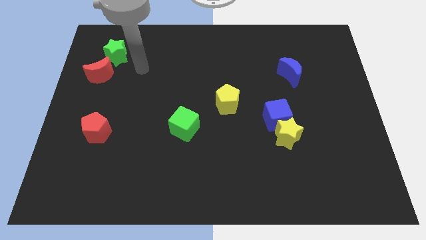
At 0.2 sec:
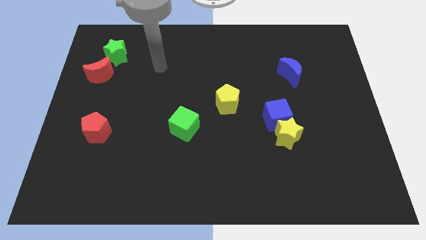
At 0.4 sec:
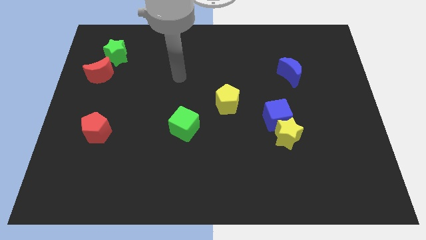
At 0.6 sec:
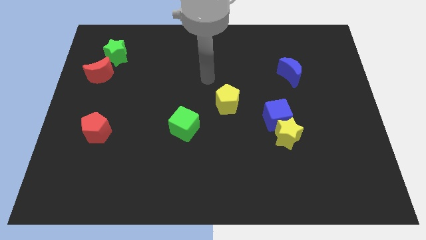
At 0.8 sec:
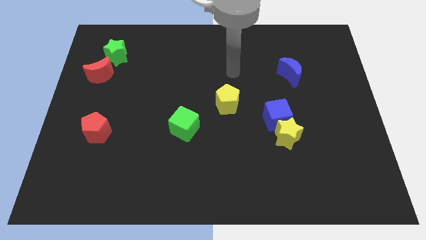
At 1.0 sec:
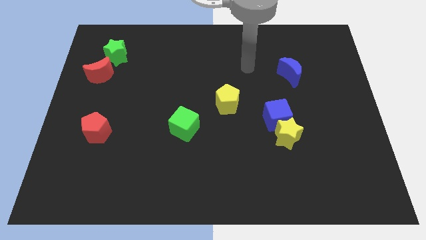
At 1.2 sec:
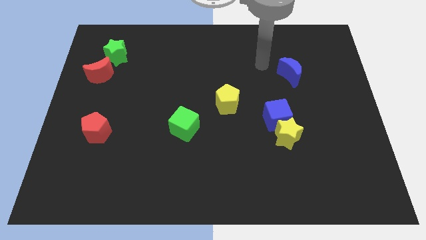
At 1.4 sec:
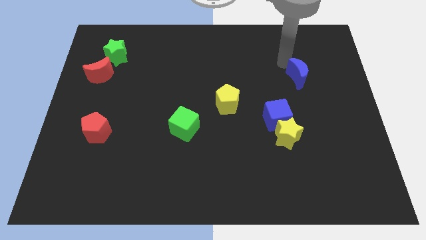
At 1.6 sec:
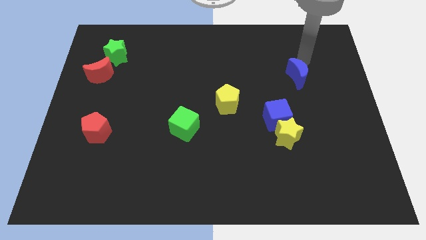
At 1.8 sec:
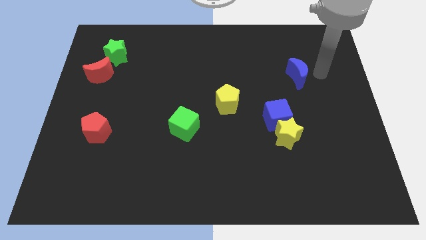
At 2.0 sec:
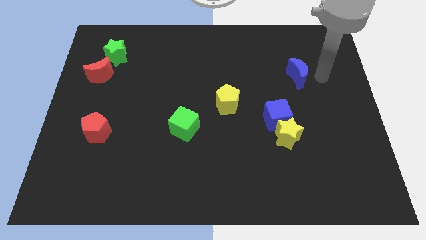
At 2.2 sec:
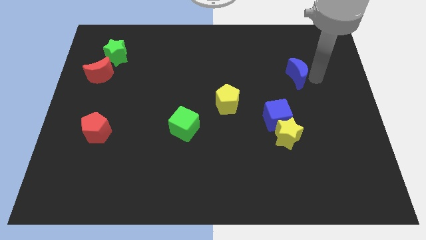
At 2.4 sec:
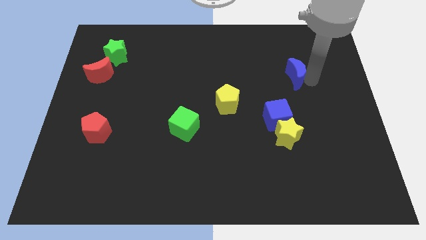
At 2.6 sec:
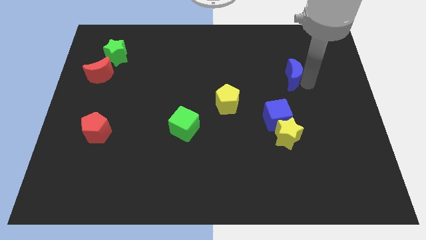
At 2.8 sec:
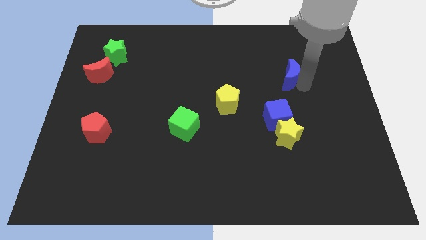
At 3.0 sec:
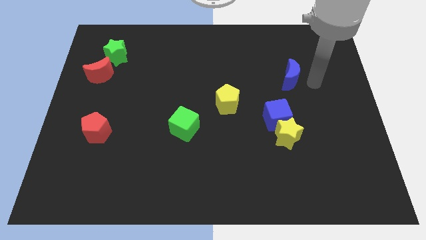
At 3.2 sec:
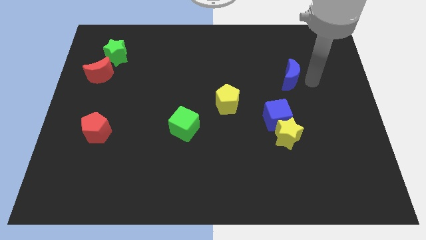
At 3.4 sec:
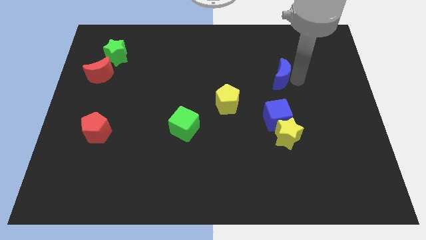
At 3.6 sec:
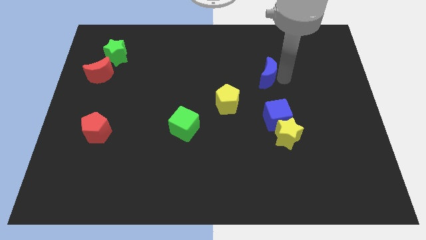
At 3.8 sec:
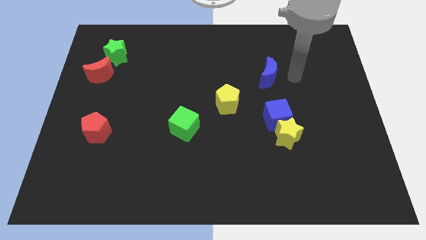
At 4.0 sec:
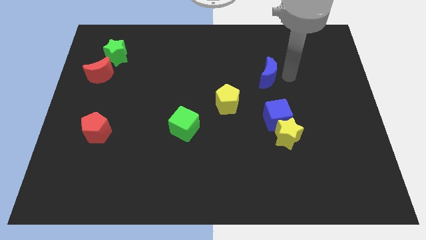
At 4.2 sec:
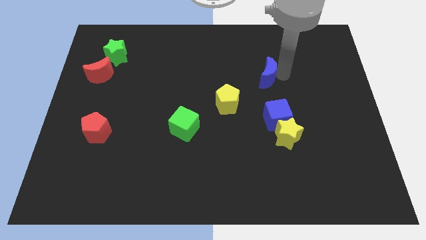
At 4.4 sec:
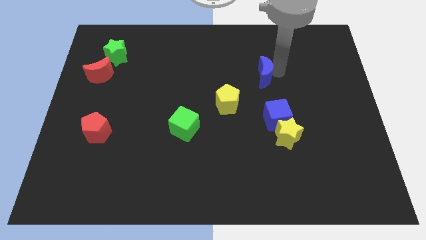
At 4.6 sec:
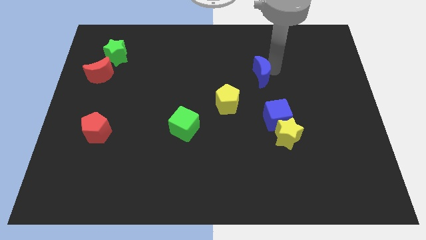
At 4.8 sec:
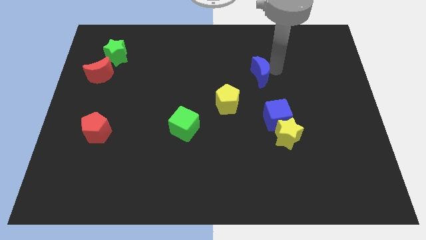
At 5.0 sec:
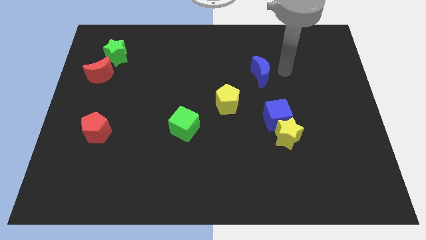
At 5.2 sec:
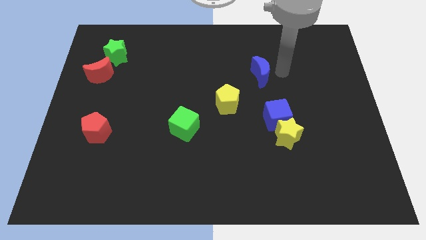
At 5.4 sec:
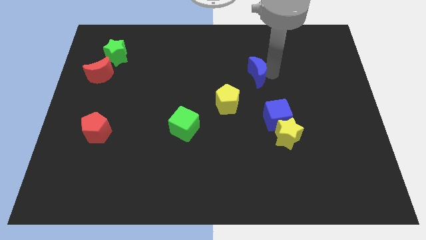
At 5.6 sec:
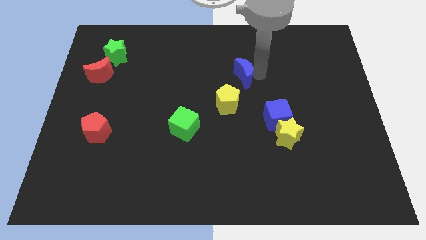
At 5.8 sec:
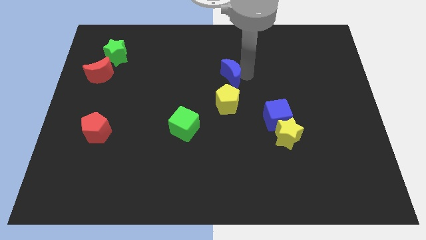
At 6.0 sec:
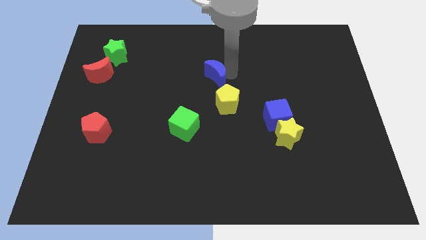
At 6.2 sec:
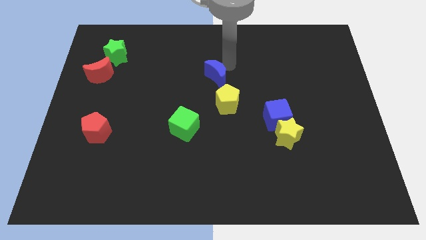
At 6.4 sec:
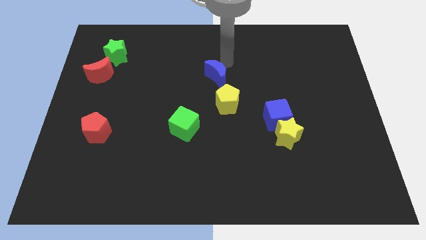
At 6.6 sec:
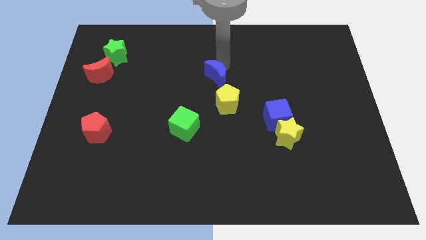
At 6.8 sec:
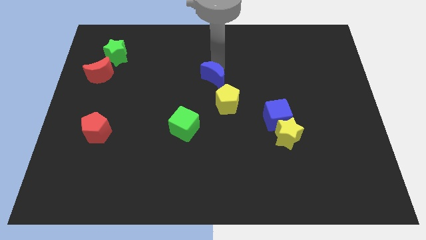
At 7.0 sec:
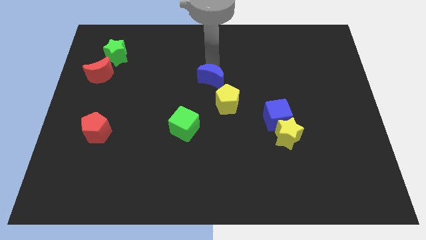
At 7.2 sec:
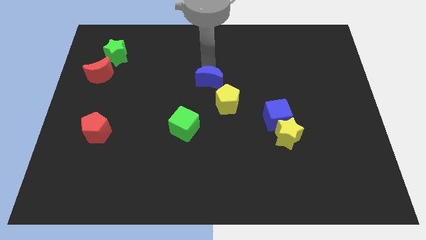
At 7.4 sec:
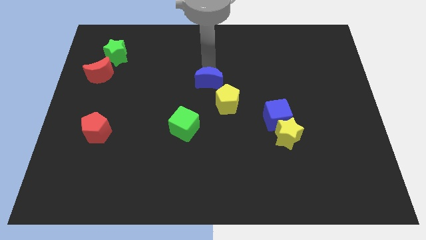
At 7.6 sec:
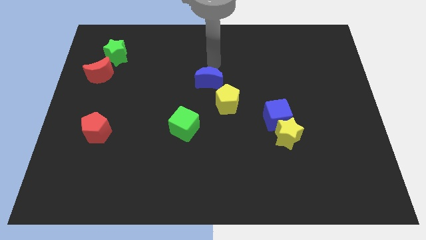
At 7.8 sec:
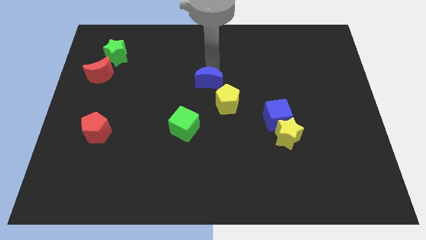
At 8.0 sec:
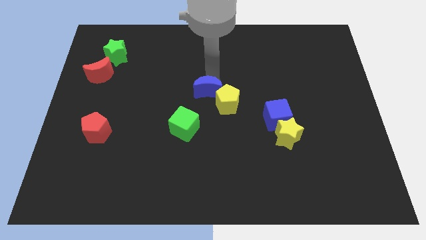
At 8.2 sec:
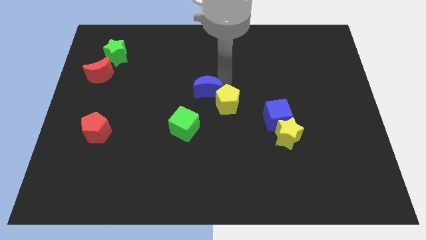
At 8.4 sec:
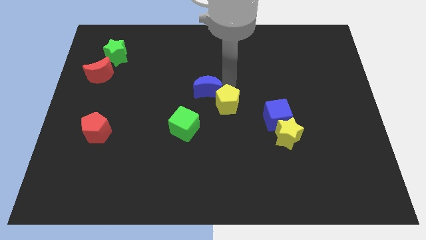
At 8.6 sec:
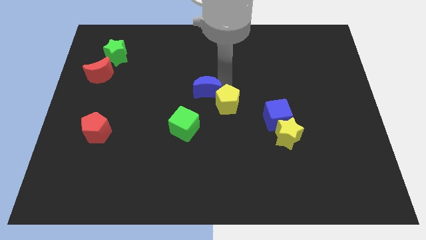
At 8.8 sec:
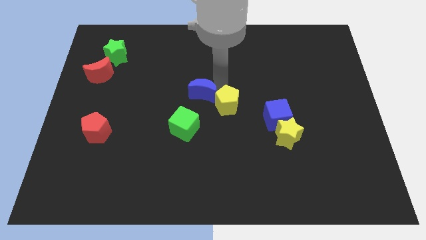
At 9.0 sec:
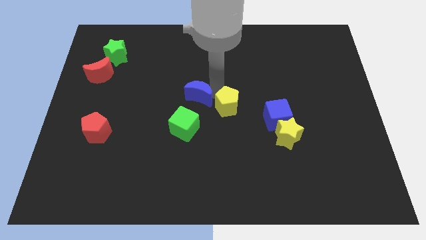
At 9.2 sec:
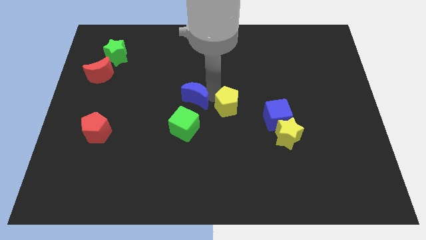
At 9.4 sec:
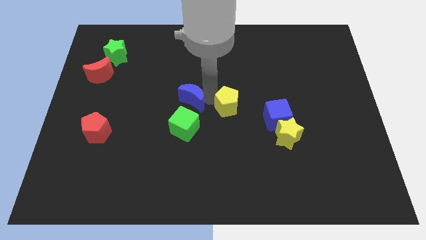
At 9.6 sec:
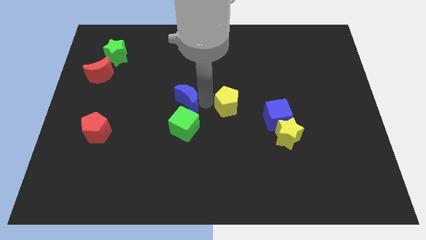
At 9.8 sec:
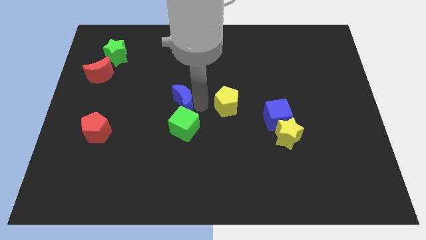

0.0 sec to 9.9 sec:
push the blue moon to the top left of the green cube

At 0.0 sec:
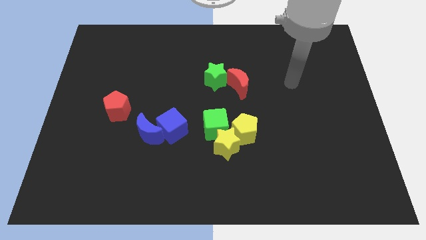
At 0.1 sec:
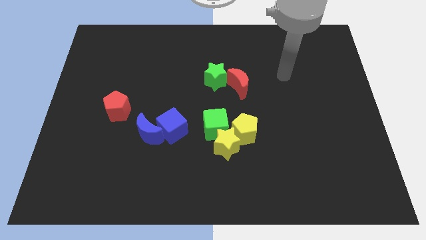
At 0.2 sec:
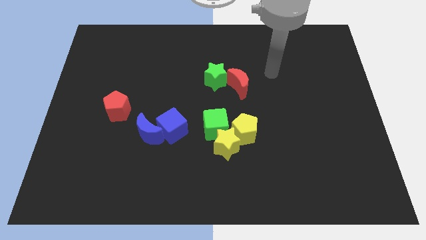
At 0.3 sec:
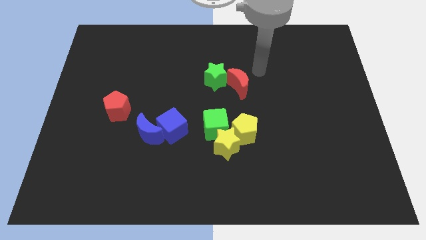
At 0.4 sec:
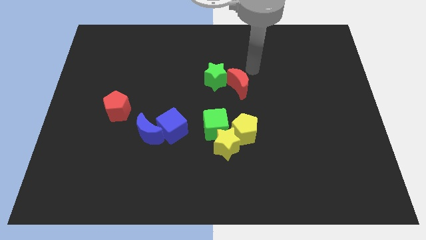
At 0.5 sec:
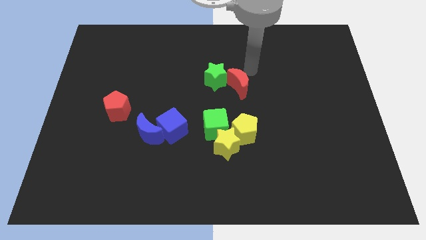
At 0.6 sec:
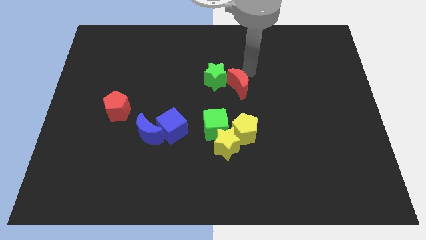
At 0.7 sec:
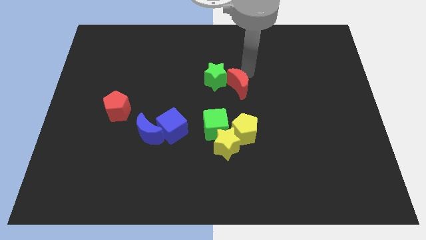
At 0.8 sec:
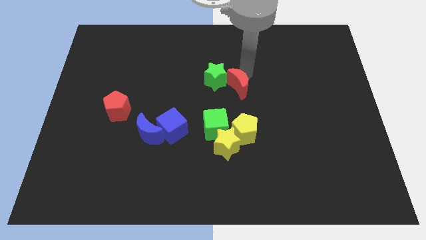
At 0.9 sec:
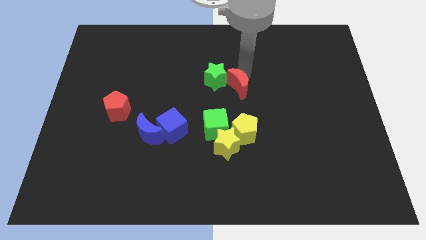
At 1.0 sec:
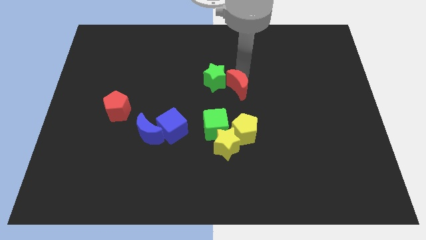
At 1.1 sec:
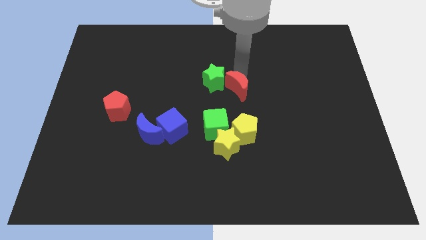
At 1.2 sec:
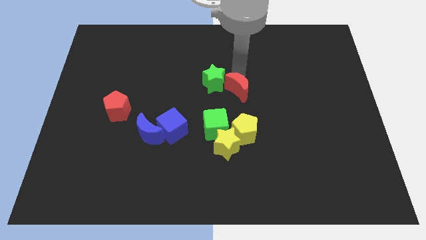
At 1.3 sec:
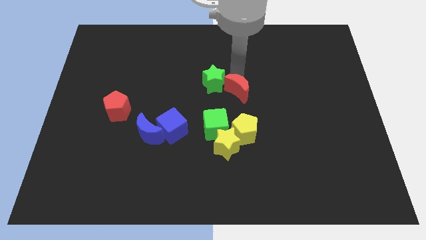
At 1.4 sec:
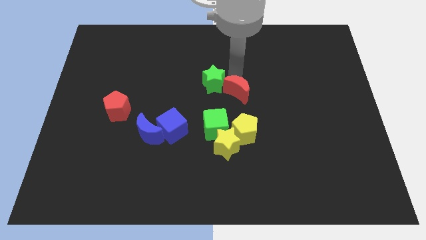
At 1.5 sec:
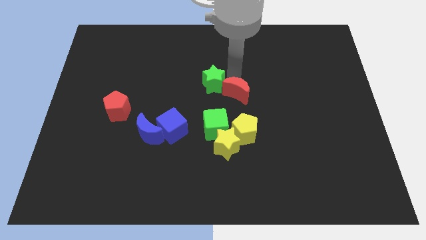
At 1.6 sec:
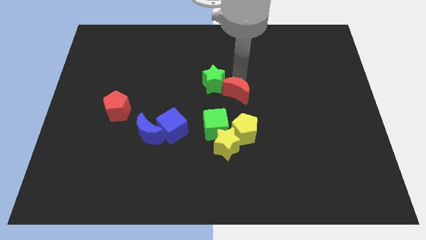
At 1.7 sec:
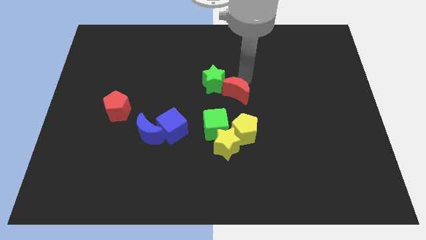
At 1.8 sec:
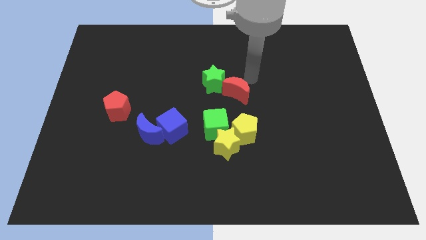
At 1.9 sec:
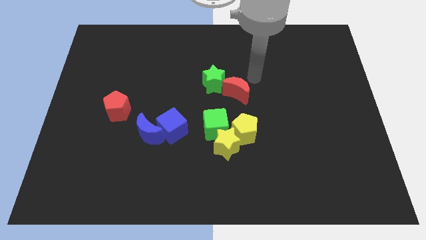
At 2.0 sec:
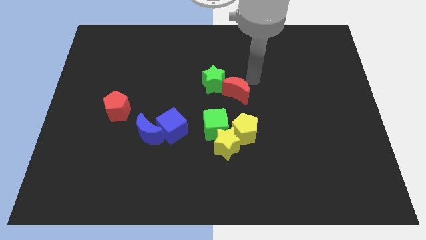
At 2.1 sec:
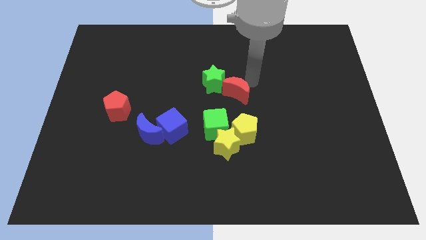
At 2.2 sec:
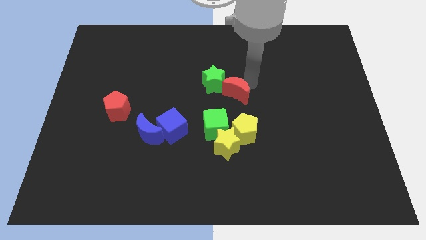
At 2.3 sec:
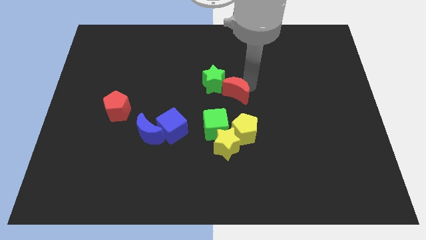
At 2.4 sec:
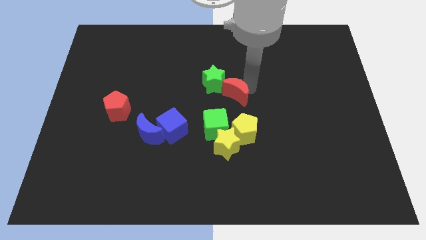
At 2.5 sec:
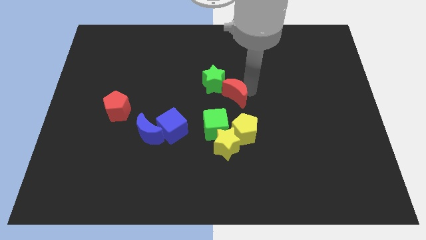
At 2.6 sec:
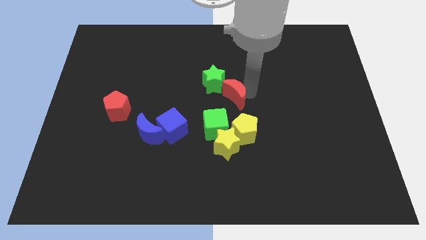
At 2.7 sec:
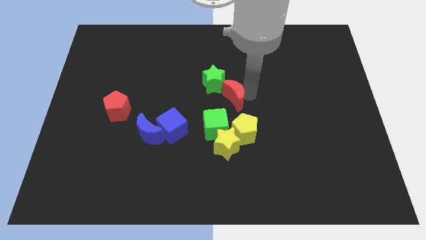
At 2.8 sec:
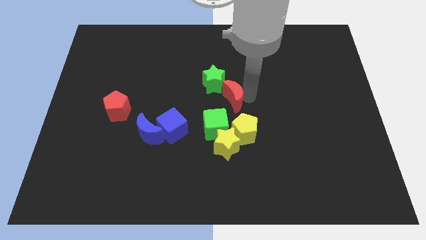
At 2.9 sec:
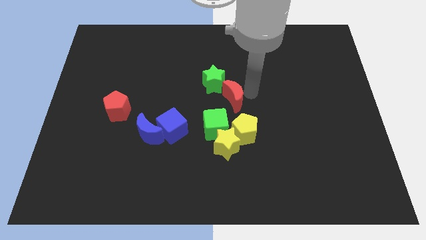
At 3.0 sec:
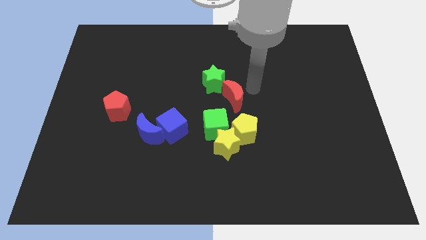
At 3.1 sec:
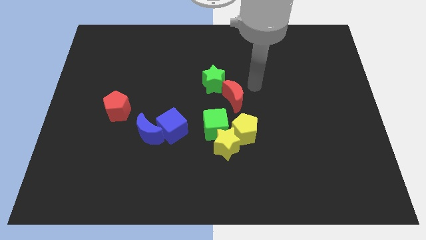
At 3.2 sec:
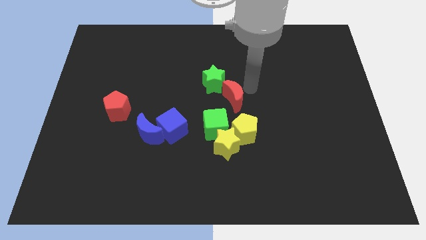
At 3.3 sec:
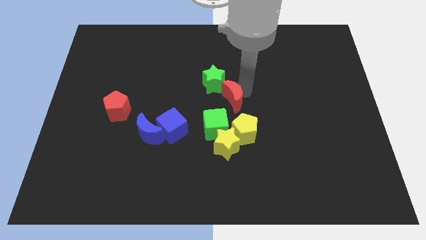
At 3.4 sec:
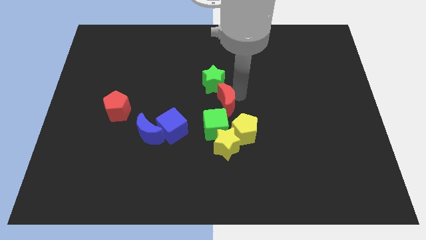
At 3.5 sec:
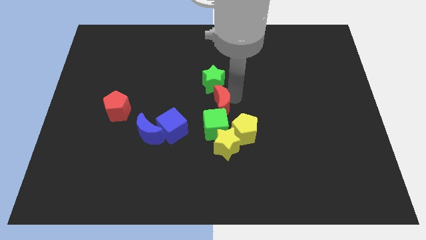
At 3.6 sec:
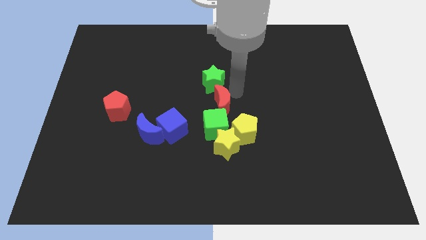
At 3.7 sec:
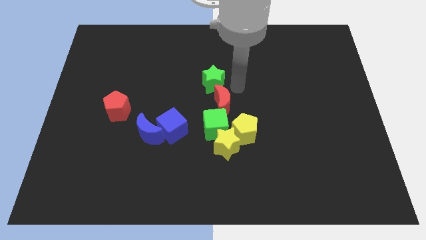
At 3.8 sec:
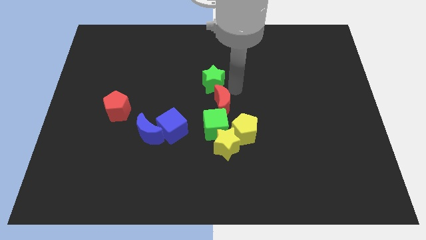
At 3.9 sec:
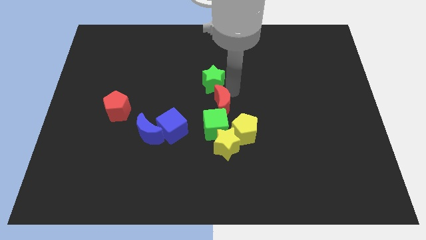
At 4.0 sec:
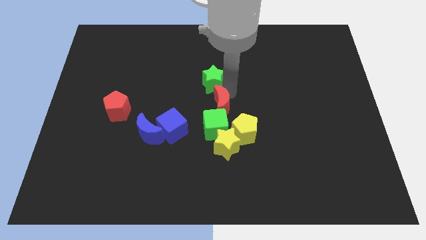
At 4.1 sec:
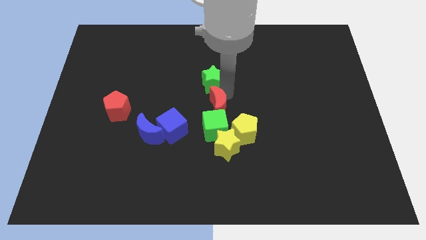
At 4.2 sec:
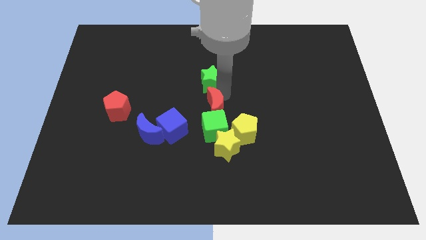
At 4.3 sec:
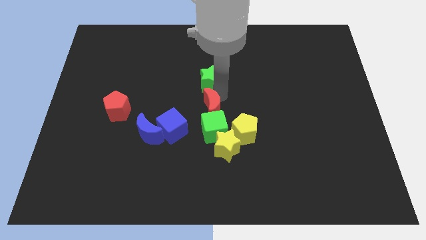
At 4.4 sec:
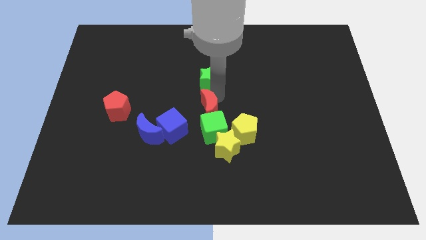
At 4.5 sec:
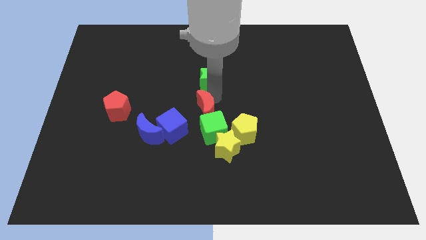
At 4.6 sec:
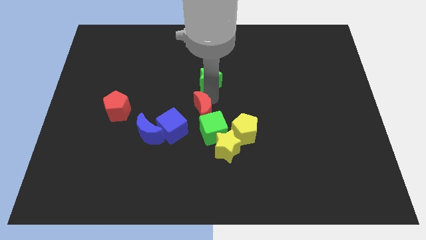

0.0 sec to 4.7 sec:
push the red moon to the top left side of the yellow star
